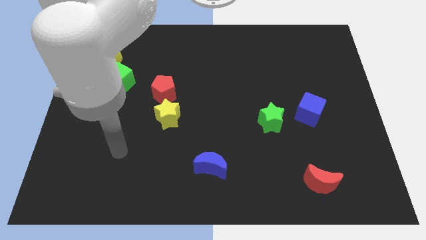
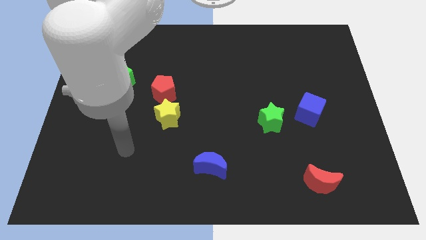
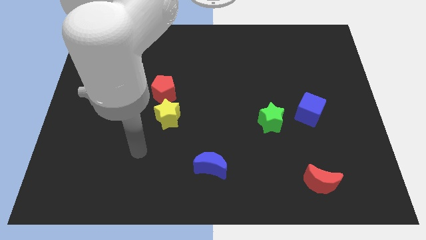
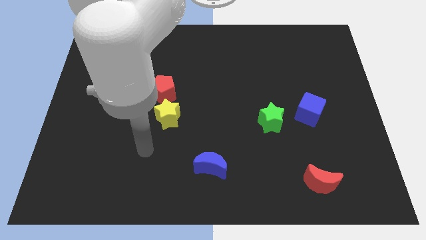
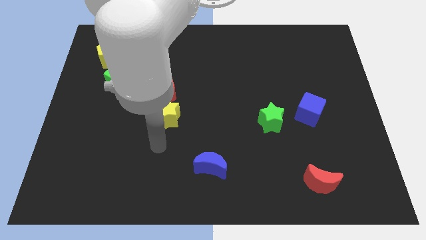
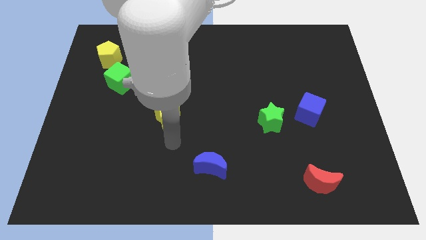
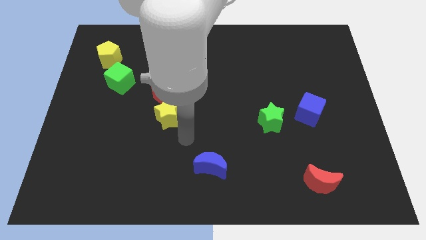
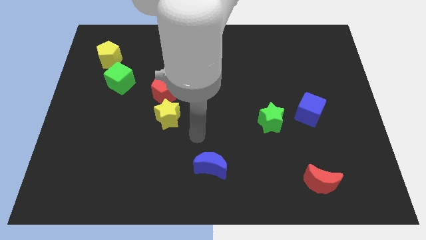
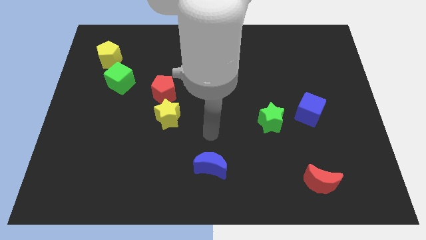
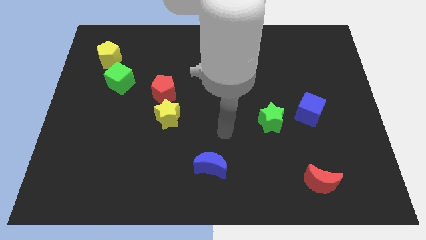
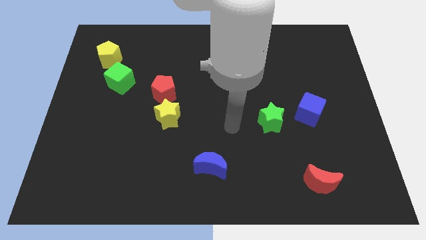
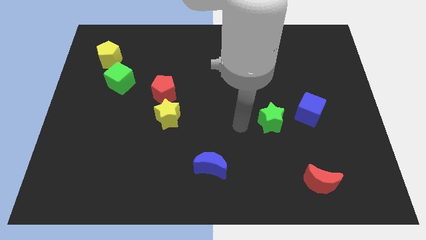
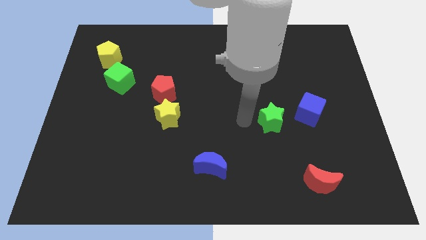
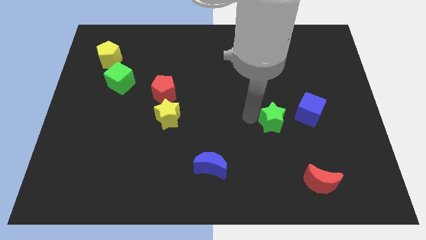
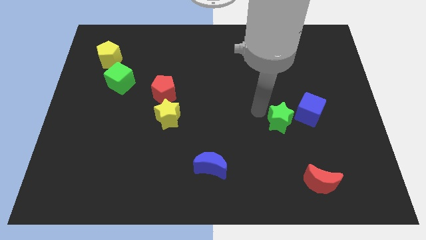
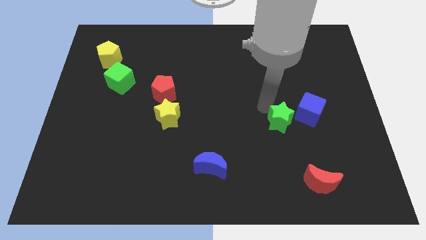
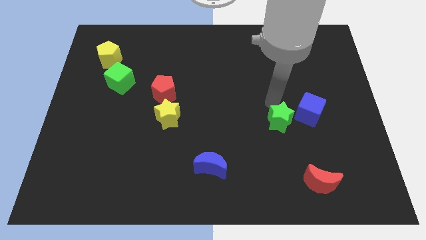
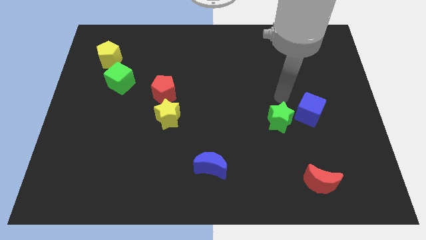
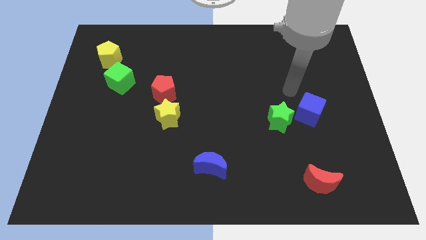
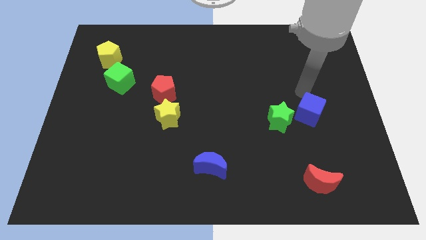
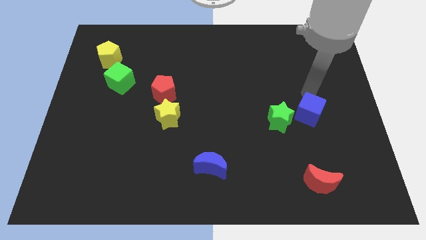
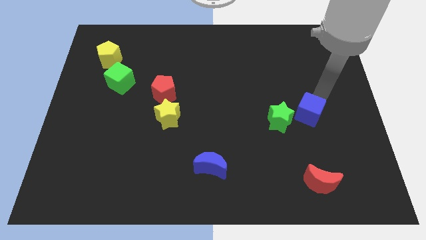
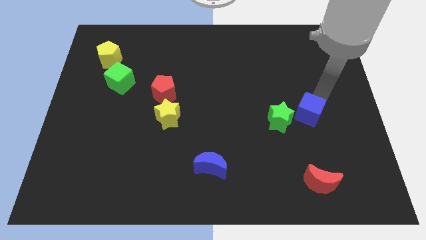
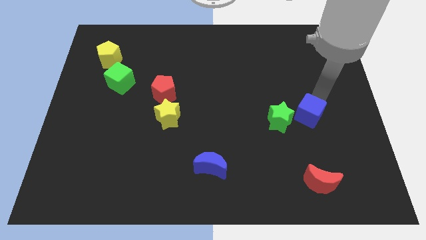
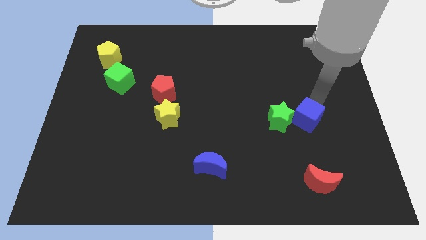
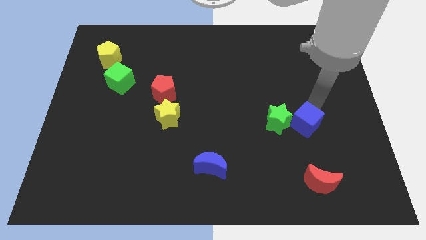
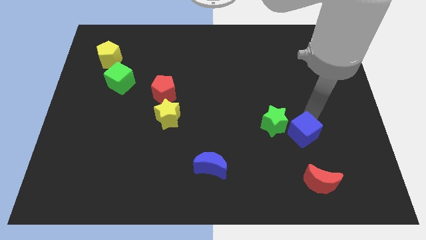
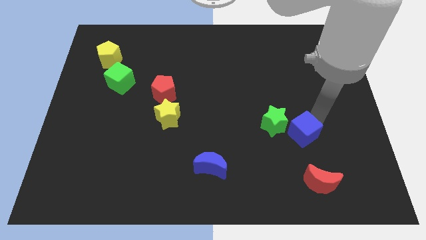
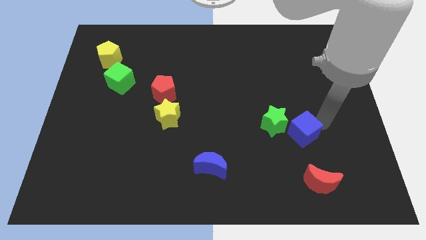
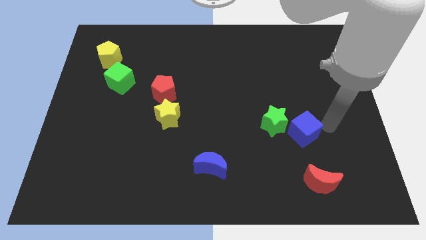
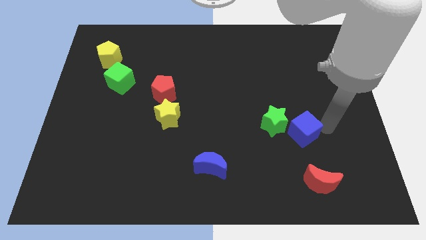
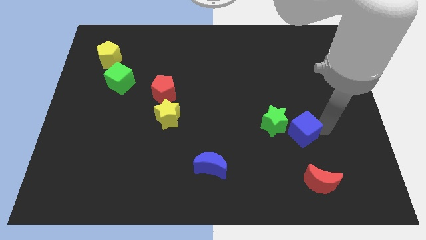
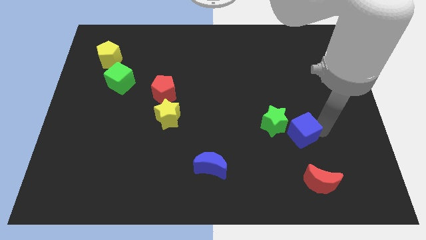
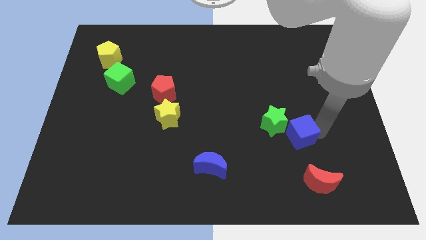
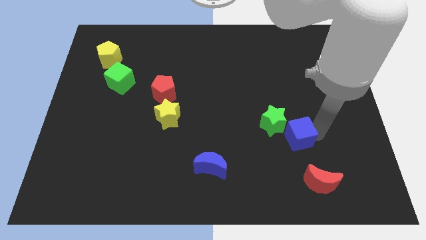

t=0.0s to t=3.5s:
slide the blue cube a little diagonally down and to the left

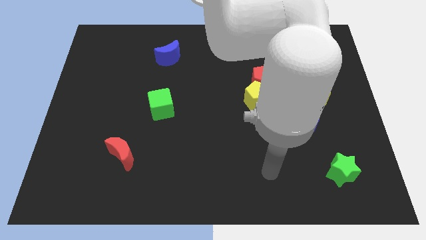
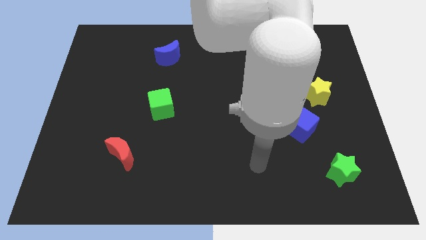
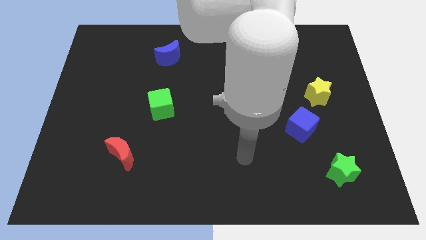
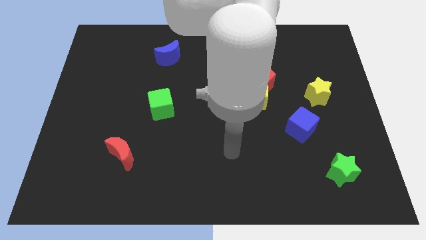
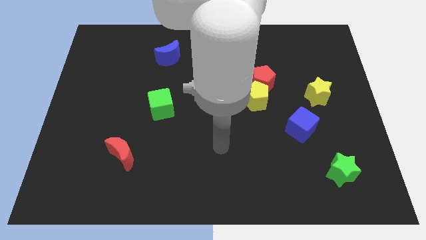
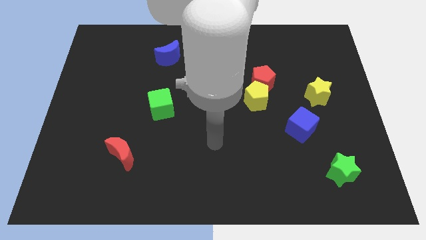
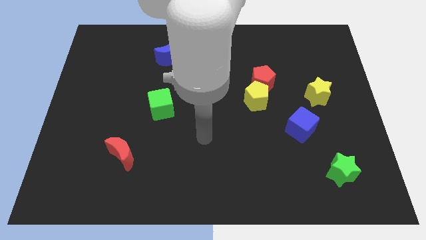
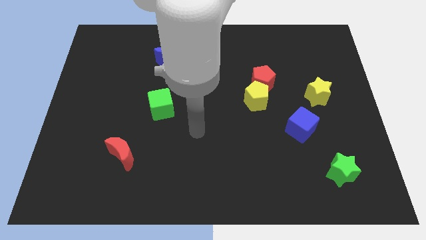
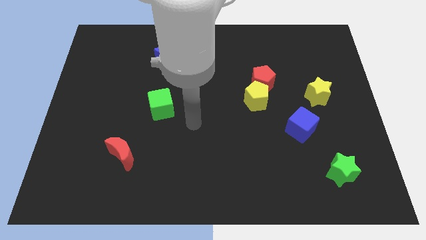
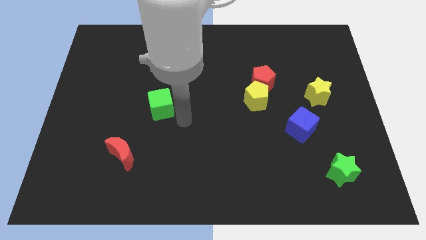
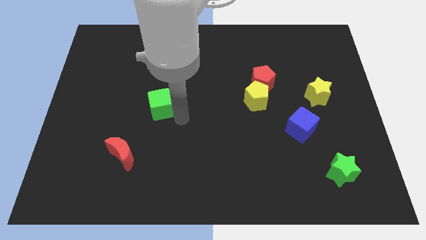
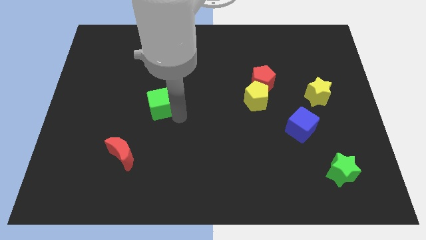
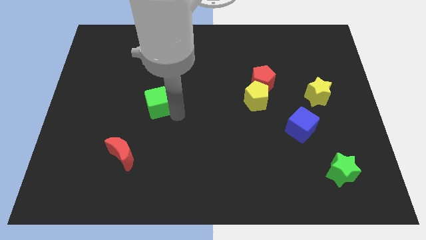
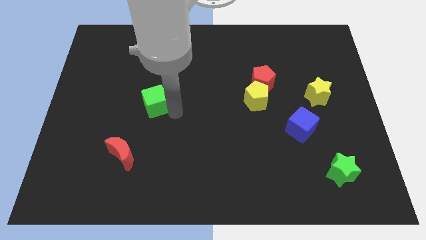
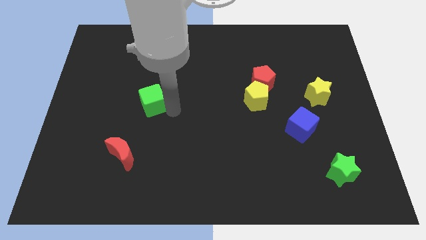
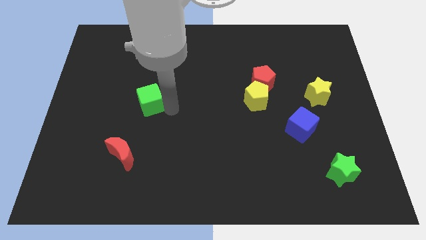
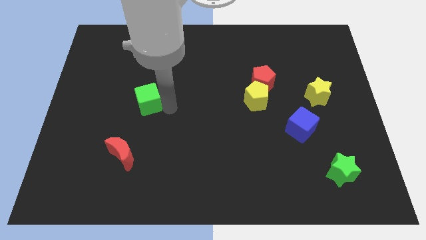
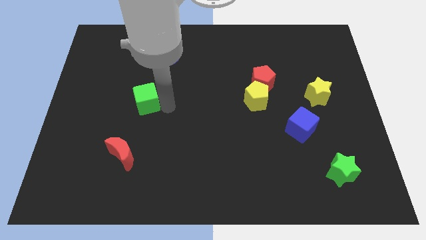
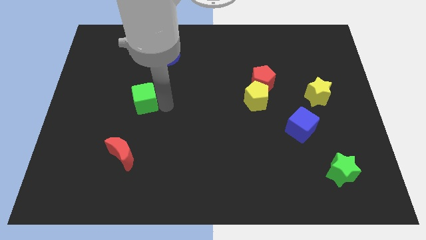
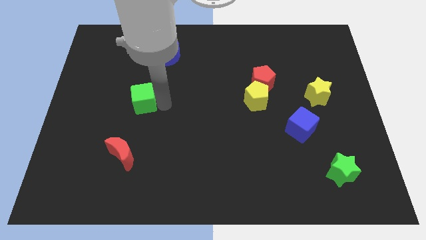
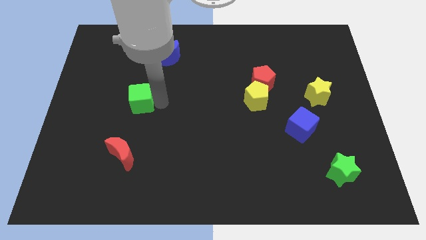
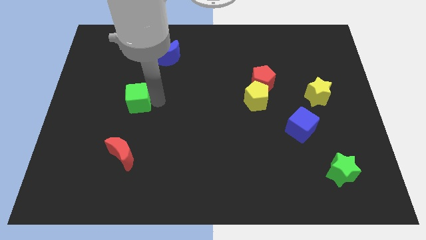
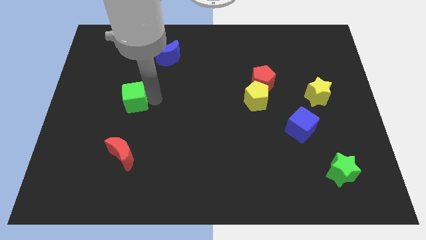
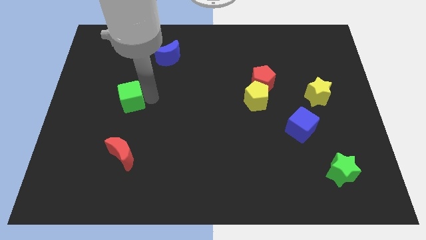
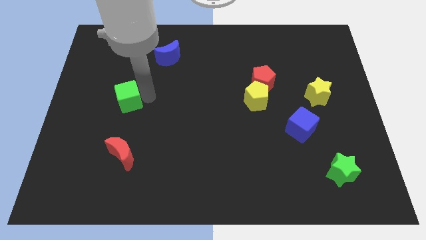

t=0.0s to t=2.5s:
move the green cube a bit up and to the left

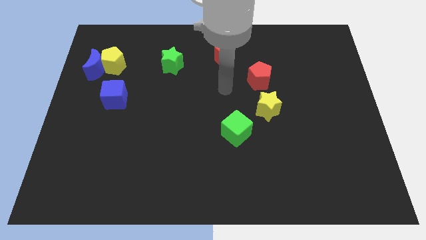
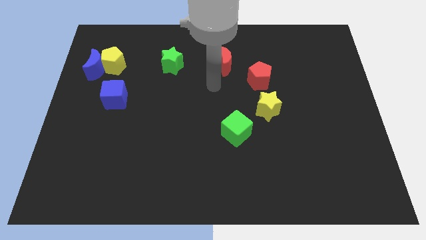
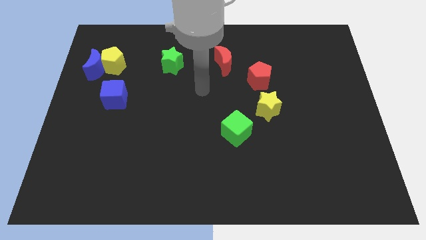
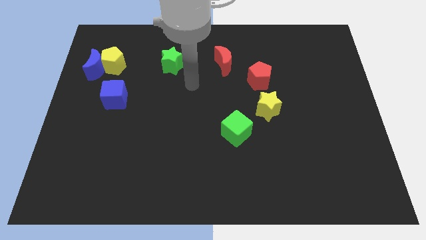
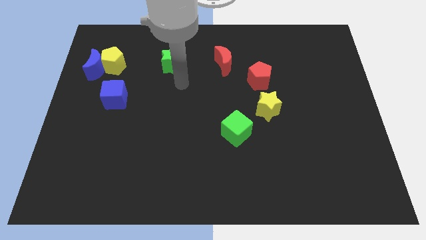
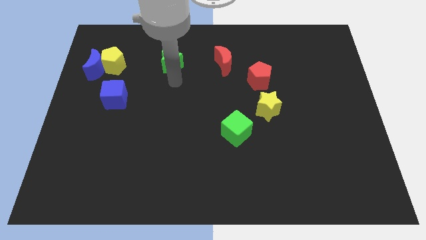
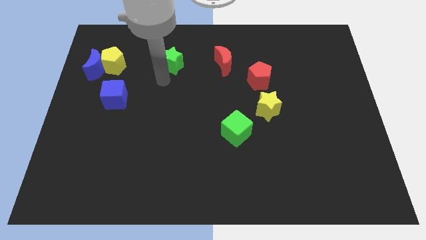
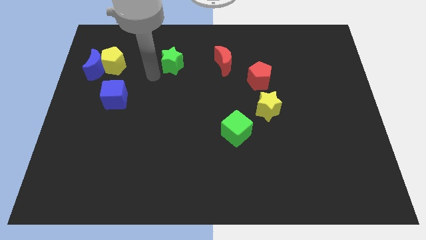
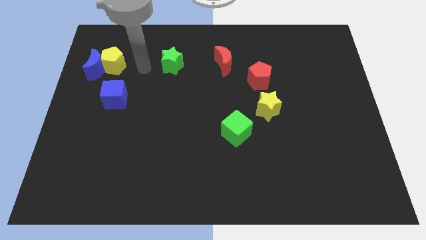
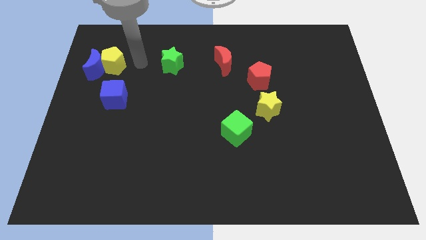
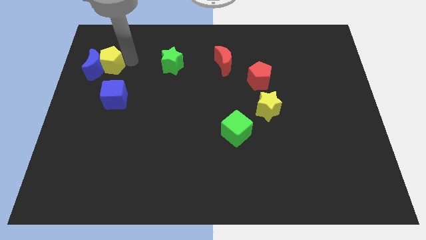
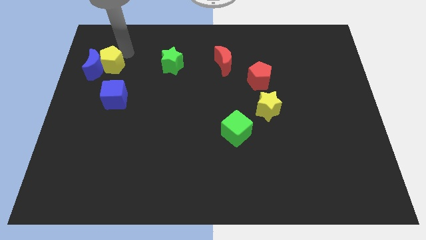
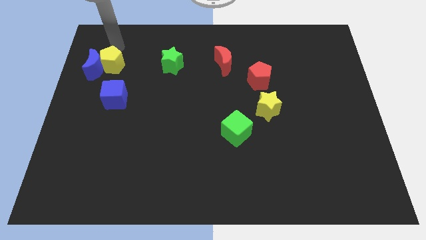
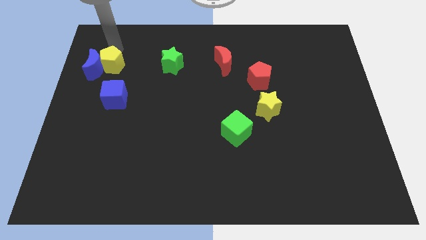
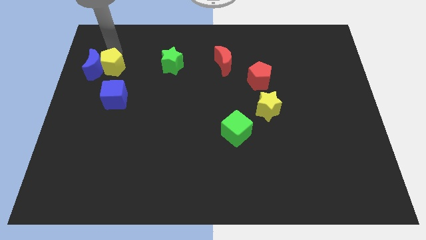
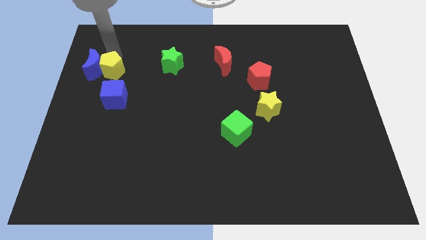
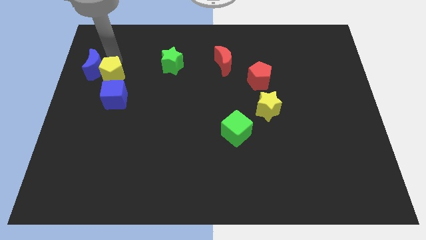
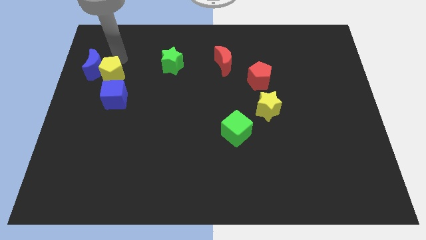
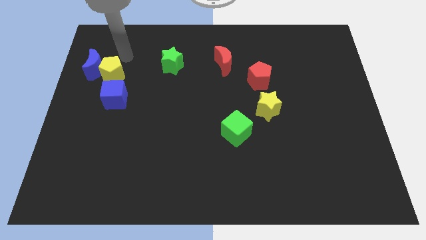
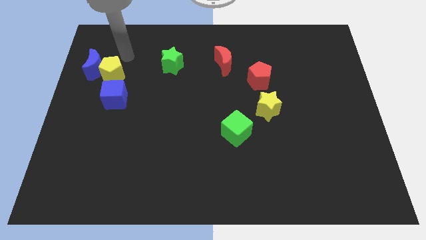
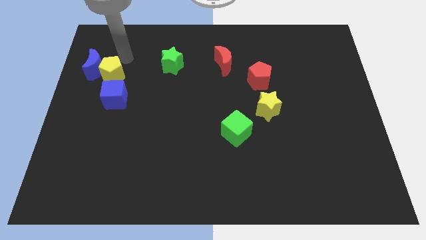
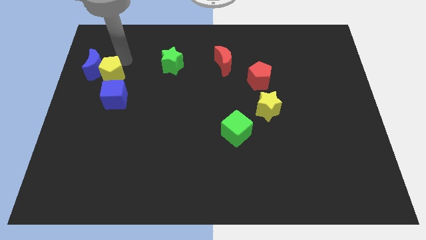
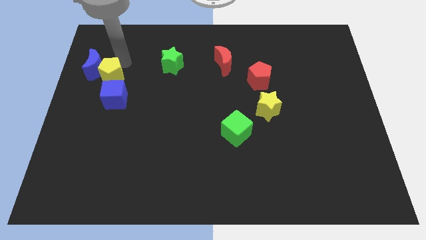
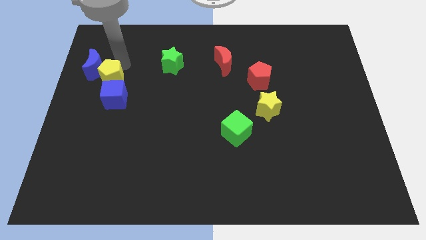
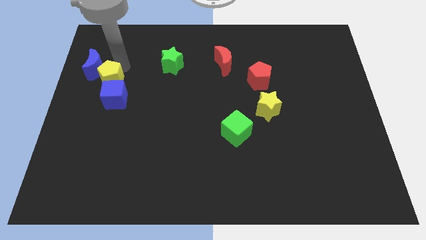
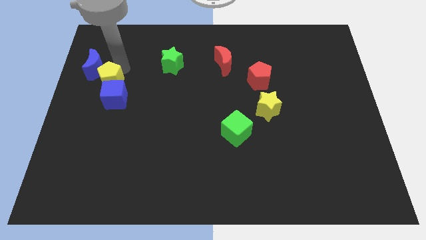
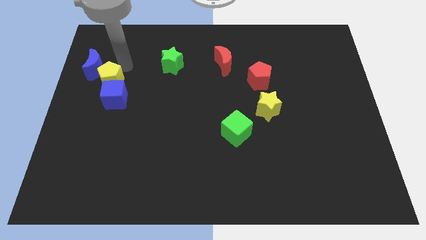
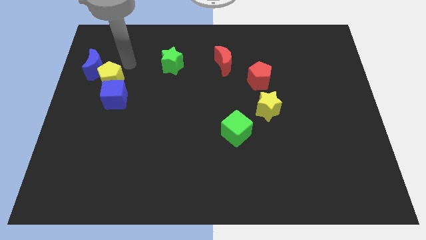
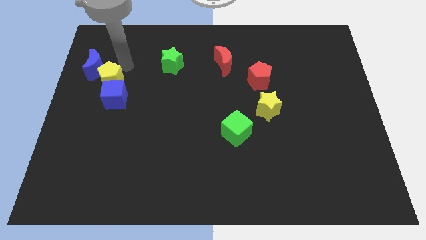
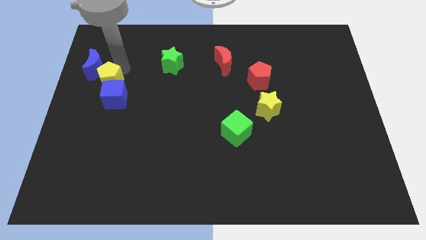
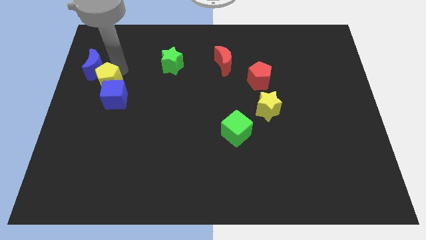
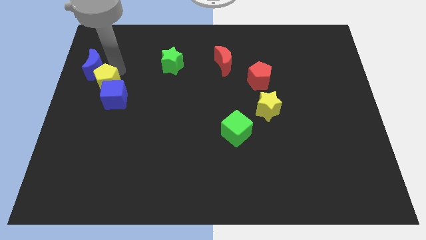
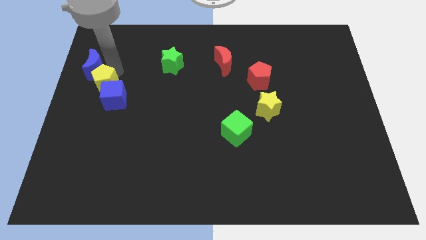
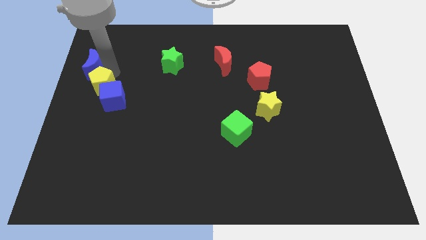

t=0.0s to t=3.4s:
slightly push the yellow pentagon downwards
